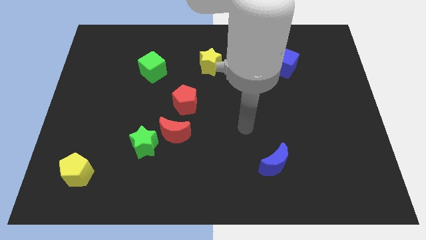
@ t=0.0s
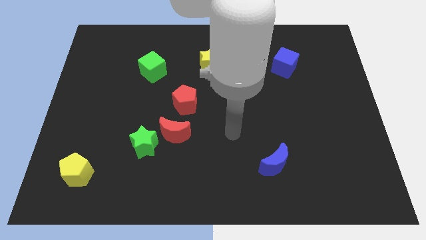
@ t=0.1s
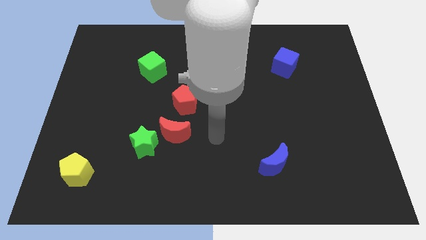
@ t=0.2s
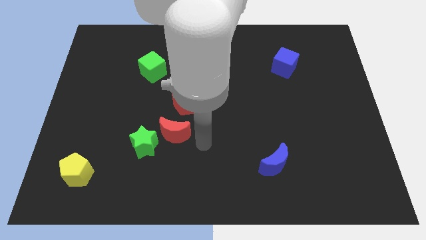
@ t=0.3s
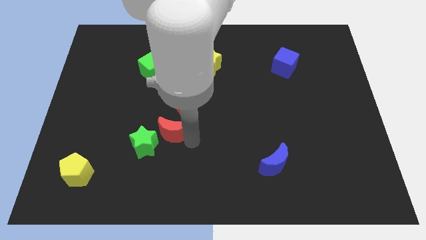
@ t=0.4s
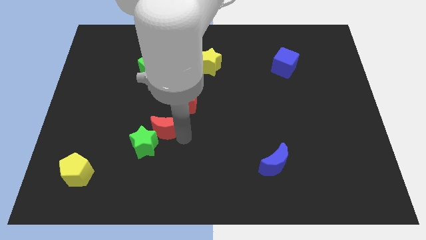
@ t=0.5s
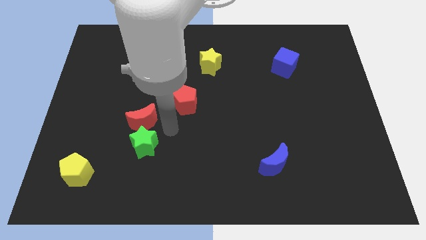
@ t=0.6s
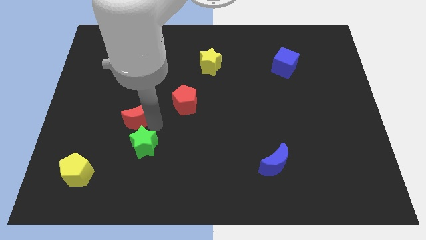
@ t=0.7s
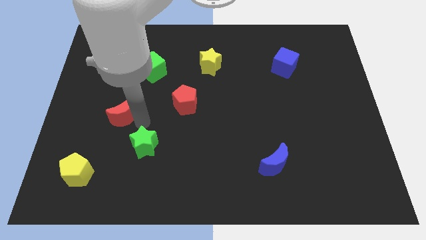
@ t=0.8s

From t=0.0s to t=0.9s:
separate the green star from the red moon

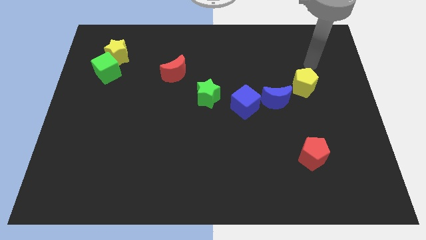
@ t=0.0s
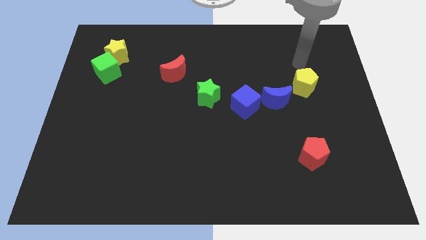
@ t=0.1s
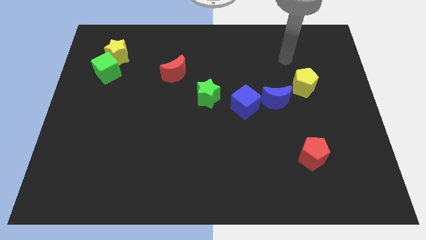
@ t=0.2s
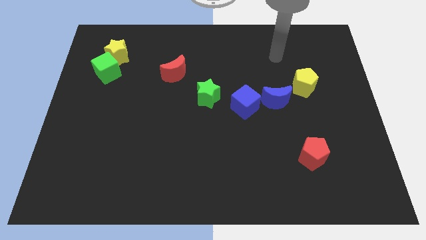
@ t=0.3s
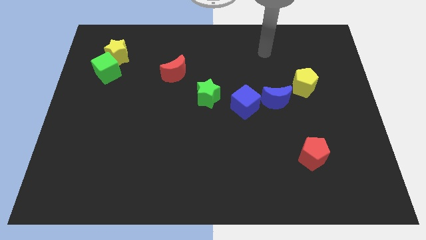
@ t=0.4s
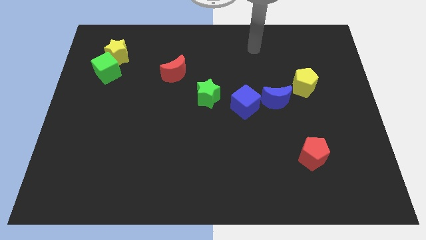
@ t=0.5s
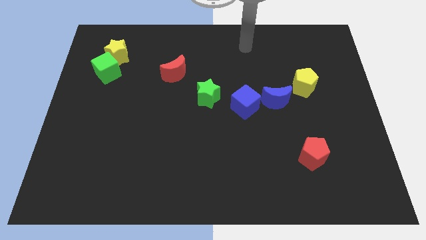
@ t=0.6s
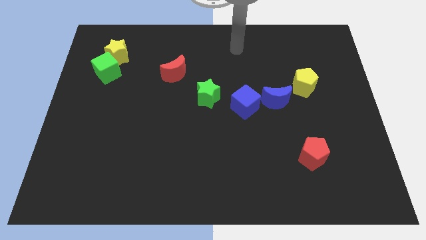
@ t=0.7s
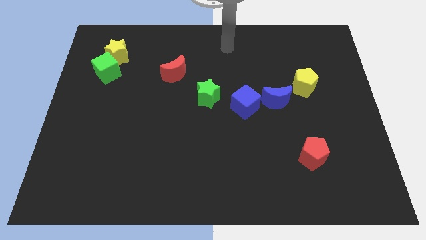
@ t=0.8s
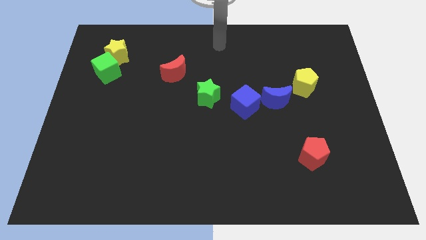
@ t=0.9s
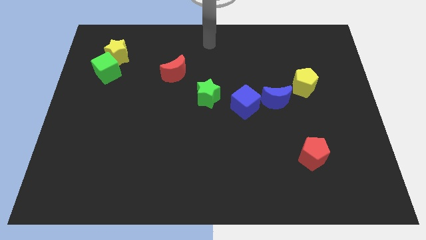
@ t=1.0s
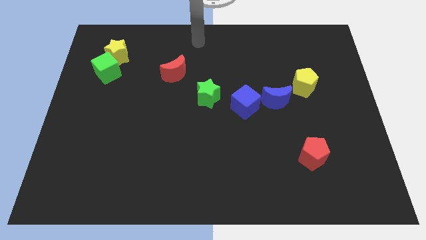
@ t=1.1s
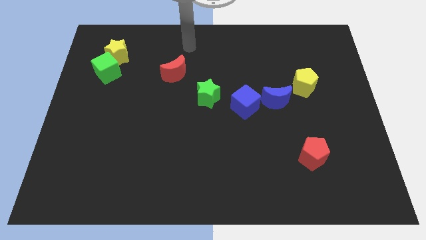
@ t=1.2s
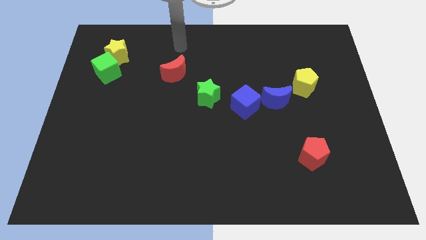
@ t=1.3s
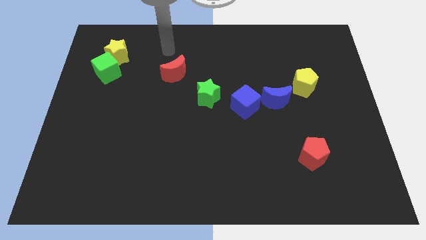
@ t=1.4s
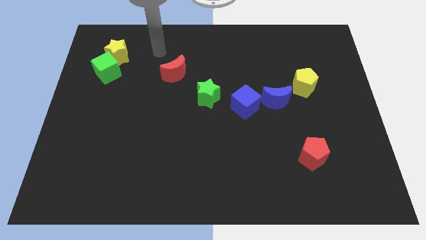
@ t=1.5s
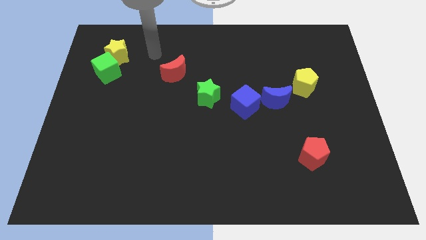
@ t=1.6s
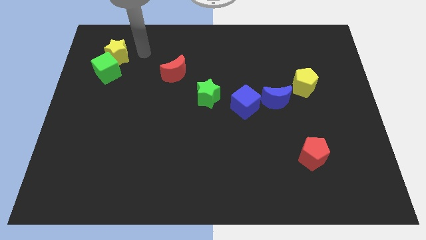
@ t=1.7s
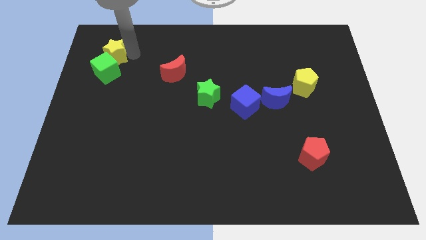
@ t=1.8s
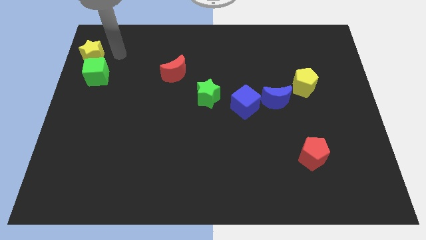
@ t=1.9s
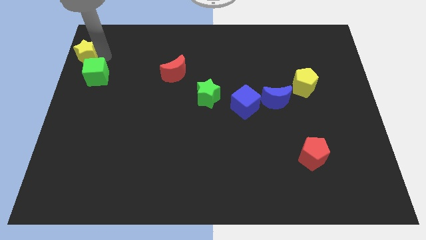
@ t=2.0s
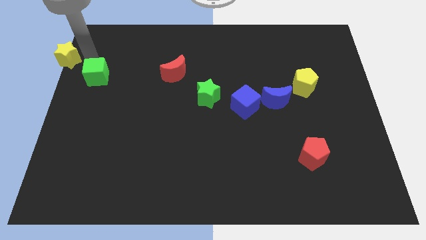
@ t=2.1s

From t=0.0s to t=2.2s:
move the green cube away from the yellow star

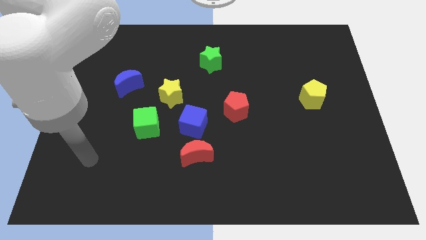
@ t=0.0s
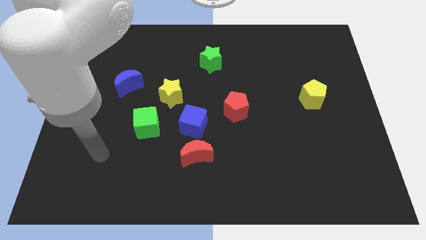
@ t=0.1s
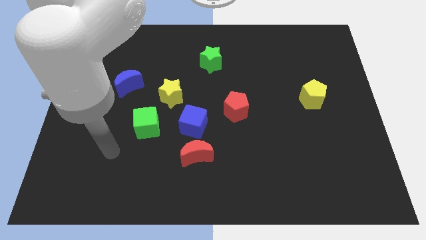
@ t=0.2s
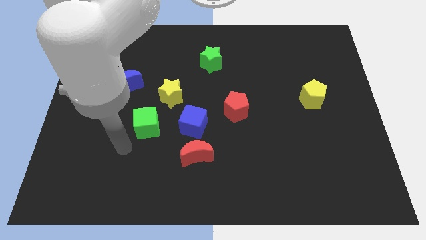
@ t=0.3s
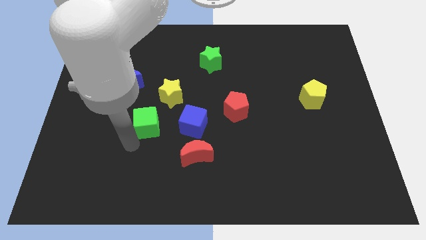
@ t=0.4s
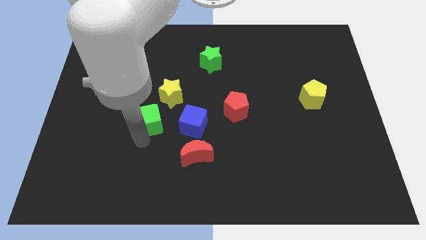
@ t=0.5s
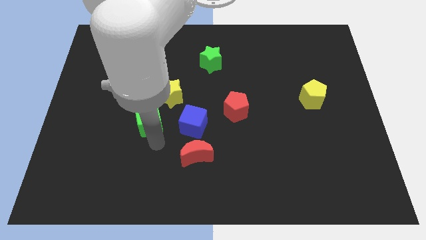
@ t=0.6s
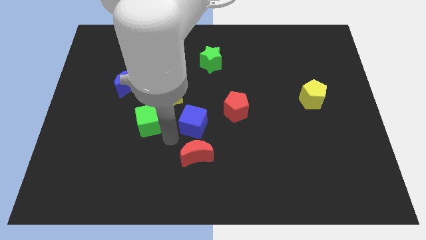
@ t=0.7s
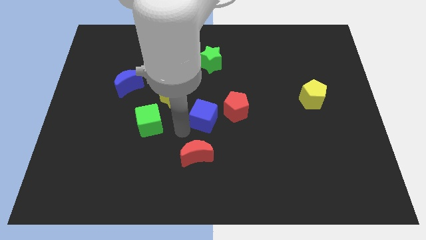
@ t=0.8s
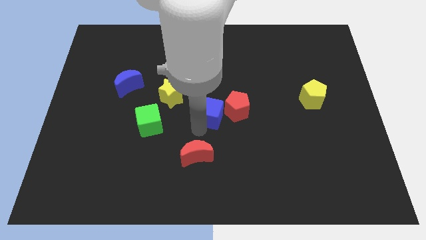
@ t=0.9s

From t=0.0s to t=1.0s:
pull the red moon apart from the blue cube

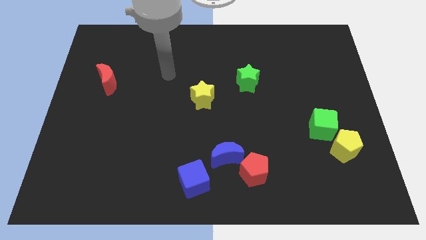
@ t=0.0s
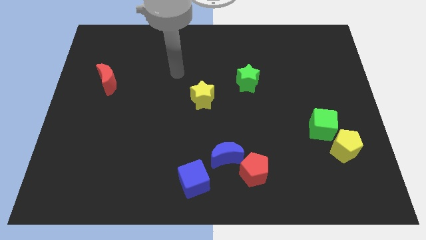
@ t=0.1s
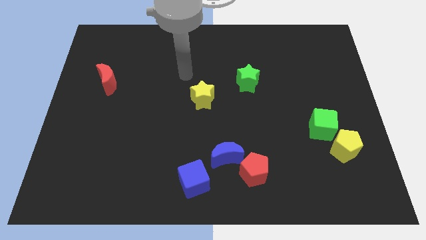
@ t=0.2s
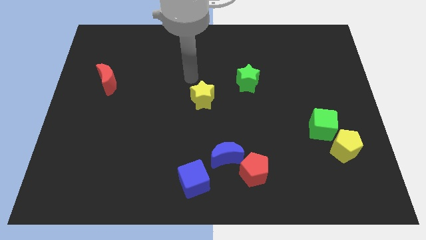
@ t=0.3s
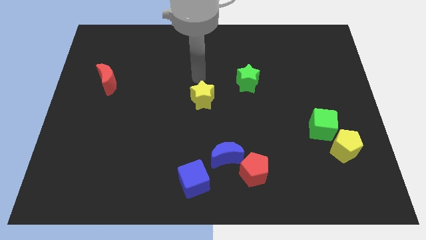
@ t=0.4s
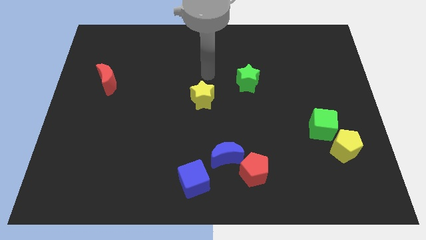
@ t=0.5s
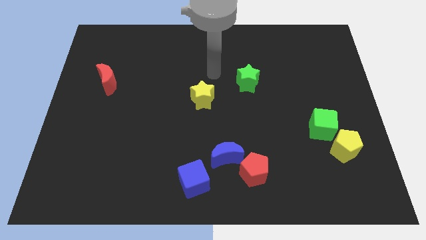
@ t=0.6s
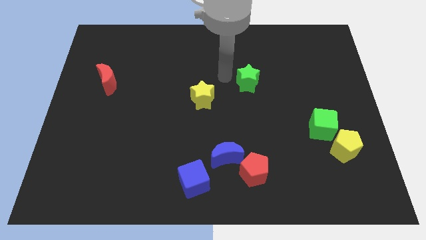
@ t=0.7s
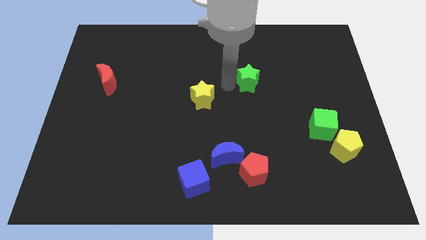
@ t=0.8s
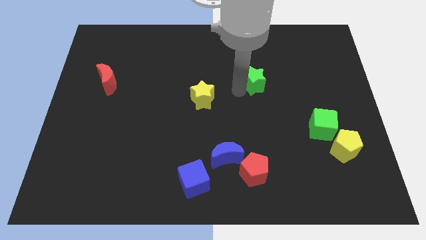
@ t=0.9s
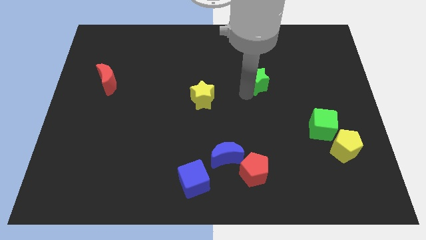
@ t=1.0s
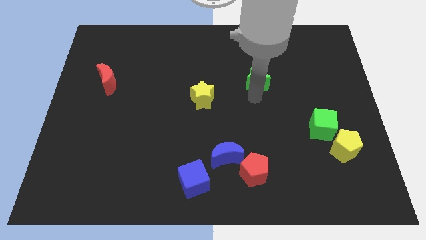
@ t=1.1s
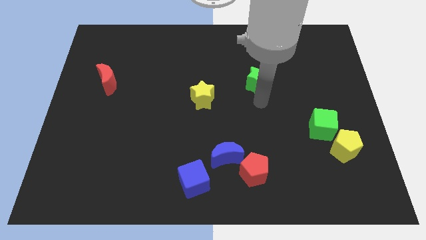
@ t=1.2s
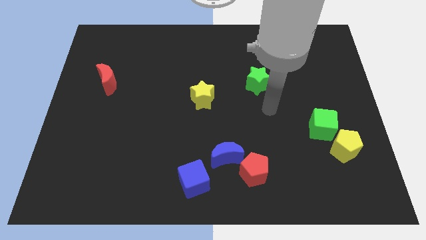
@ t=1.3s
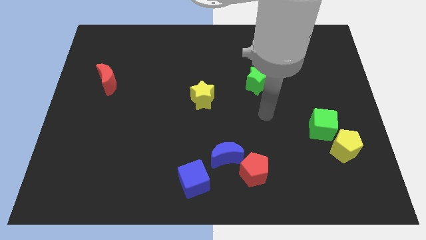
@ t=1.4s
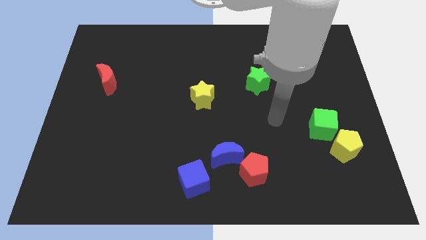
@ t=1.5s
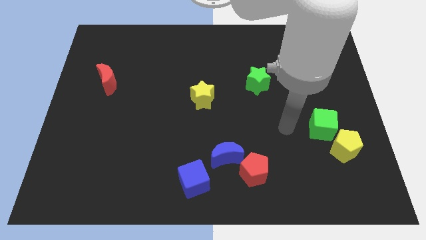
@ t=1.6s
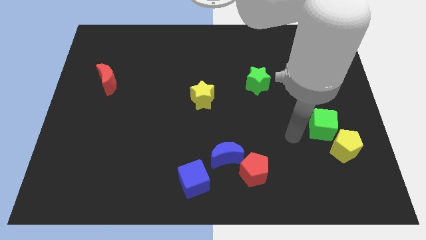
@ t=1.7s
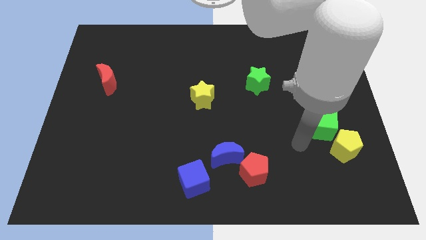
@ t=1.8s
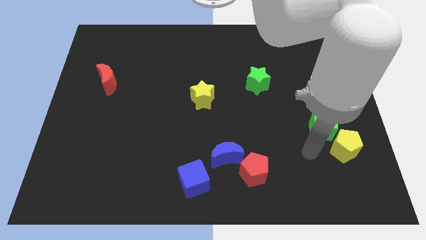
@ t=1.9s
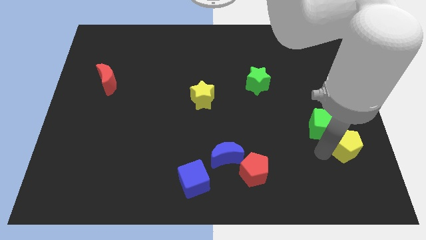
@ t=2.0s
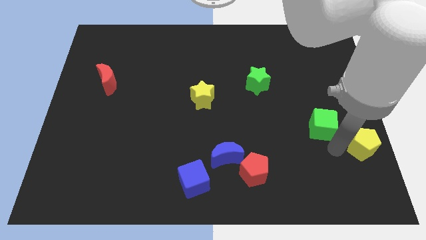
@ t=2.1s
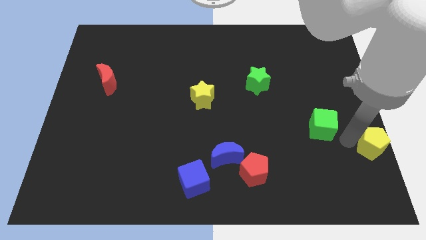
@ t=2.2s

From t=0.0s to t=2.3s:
move the green cube away from the yellow pentagon

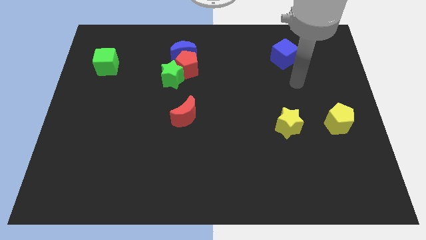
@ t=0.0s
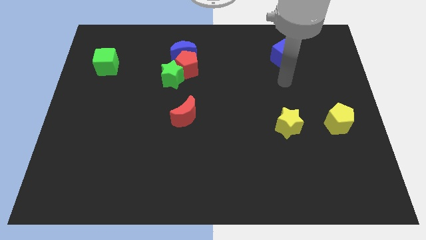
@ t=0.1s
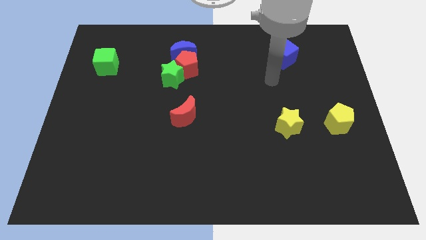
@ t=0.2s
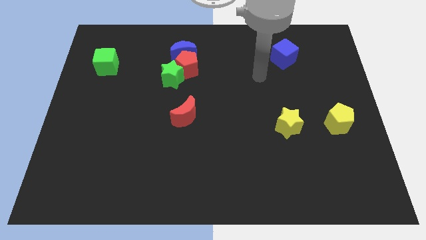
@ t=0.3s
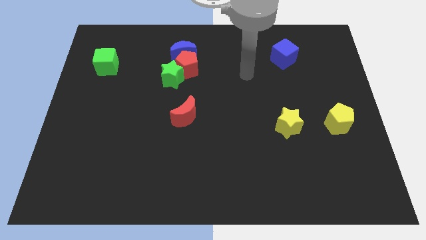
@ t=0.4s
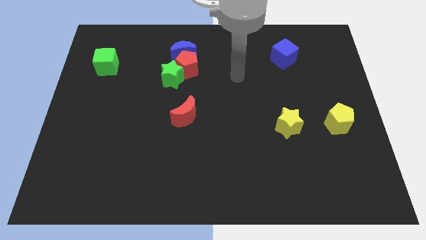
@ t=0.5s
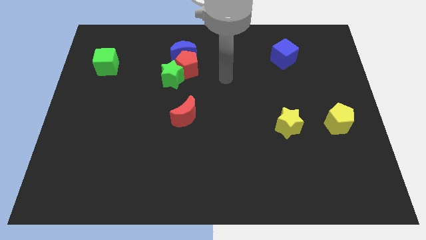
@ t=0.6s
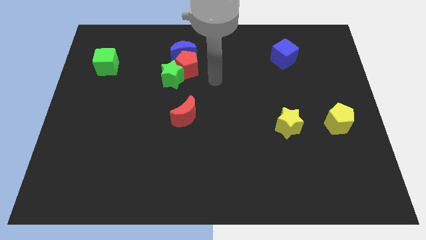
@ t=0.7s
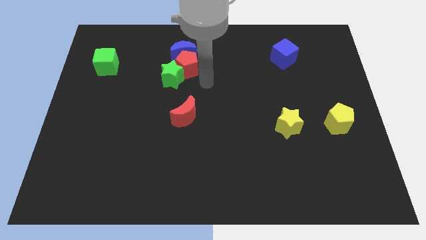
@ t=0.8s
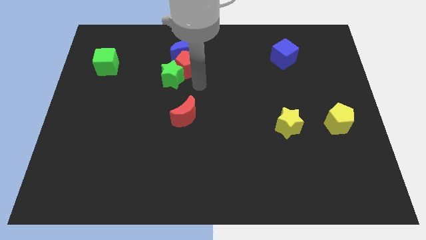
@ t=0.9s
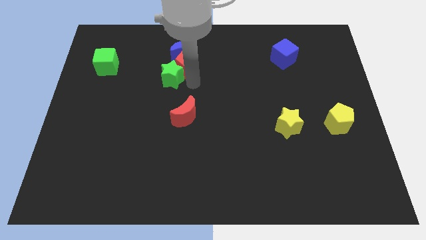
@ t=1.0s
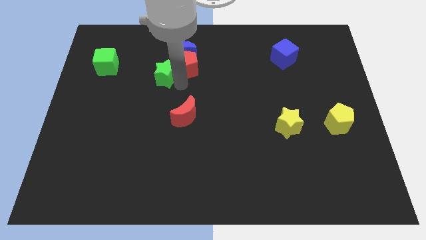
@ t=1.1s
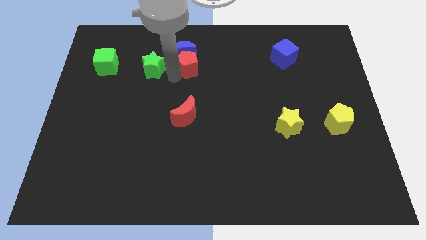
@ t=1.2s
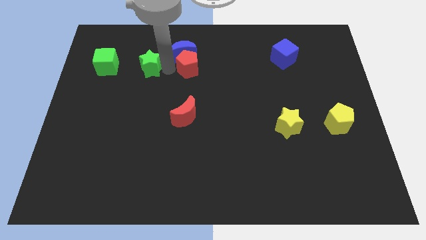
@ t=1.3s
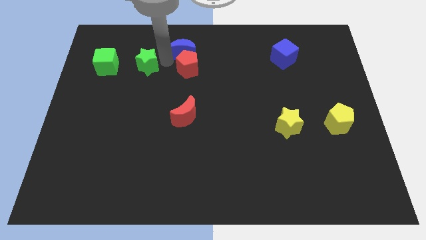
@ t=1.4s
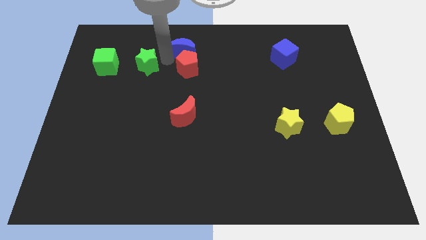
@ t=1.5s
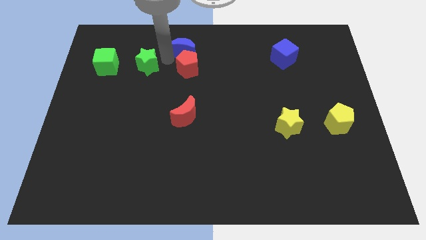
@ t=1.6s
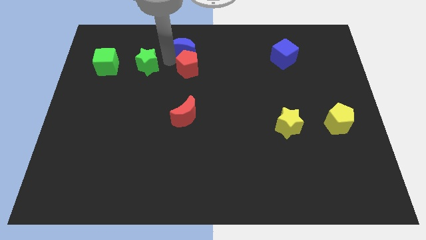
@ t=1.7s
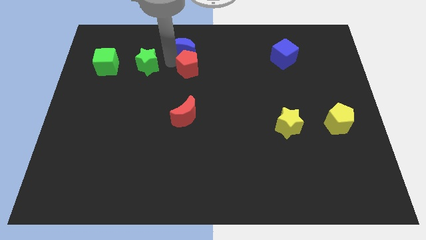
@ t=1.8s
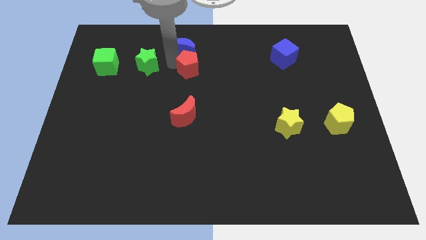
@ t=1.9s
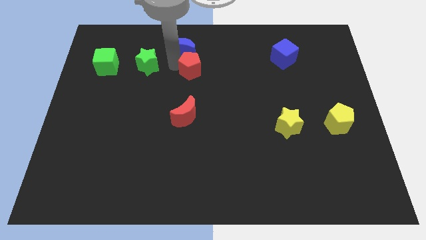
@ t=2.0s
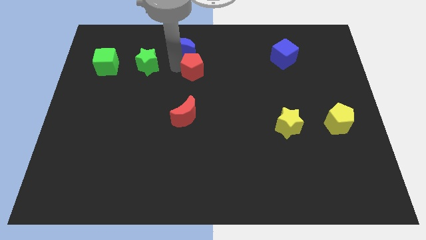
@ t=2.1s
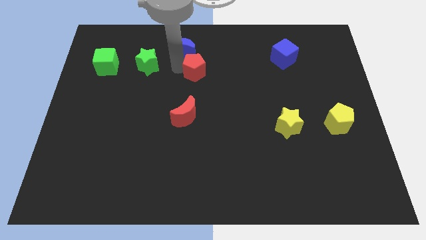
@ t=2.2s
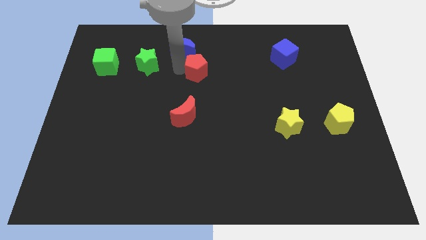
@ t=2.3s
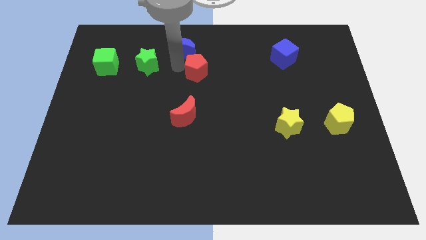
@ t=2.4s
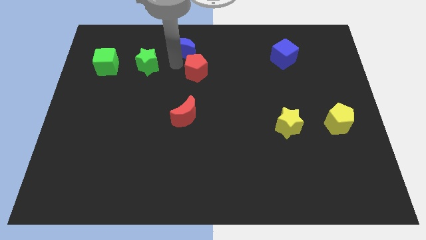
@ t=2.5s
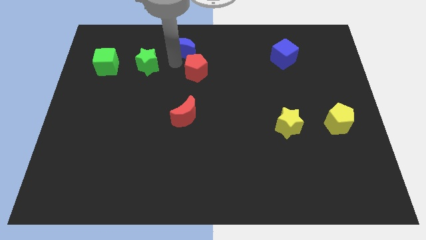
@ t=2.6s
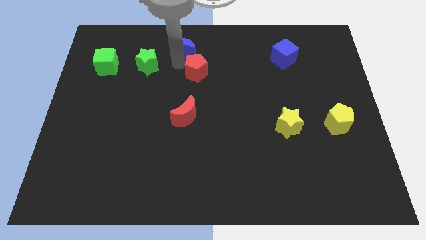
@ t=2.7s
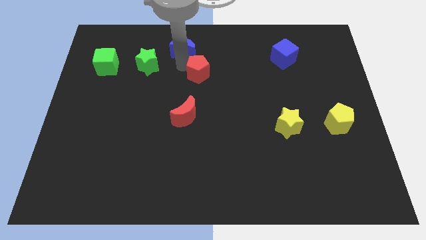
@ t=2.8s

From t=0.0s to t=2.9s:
move the red pentagon away from the blue moon and green star
